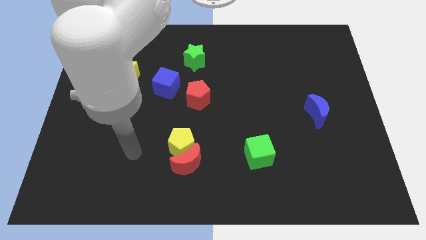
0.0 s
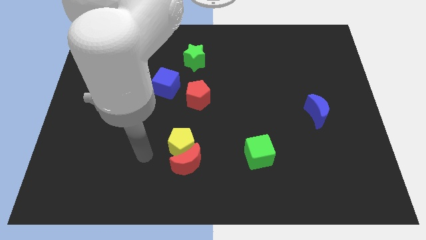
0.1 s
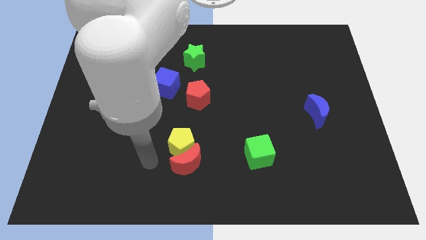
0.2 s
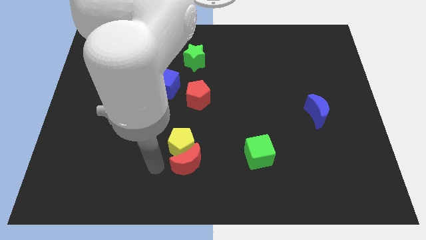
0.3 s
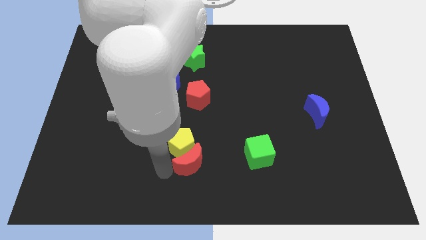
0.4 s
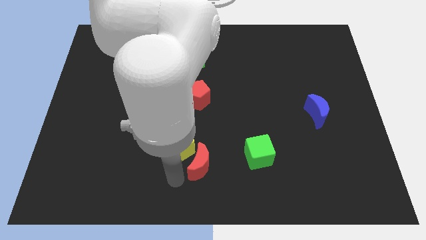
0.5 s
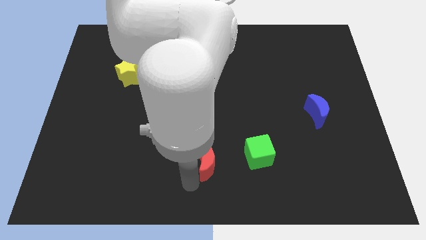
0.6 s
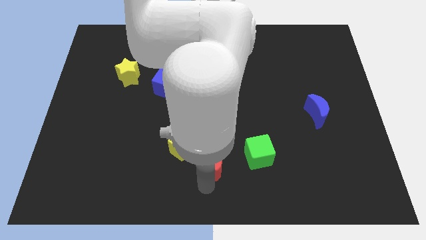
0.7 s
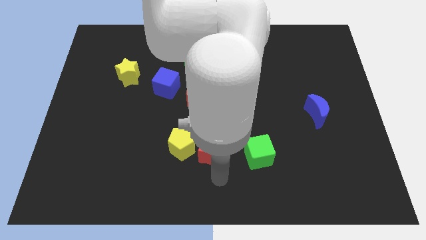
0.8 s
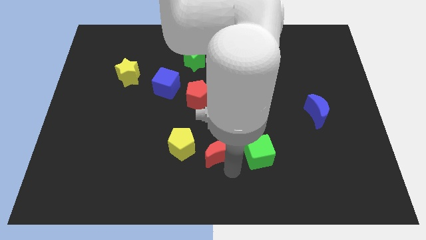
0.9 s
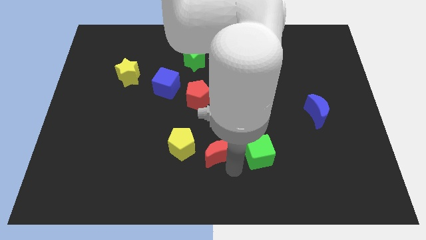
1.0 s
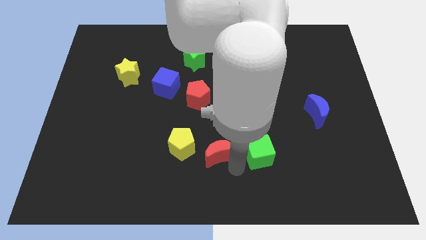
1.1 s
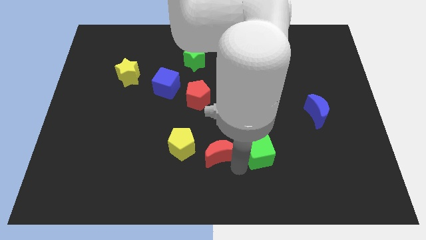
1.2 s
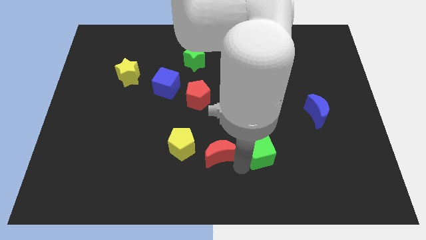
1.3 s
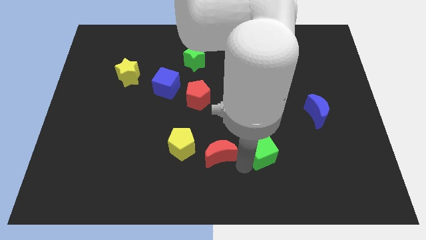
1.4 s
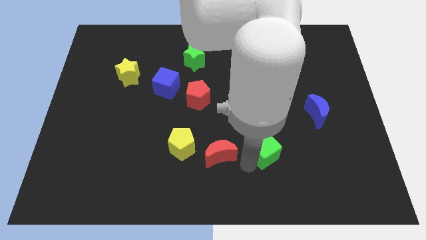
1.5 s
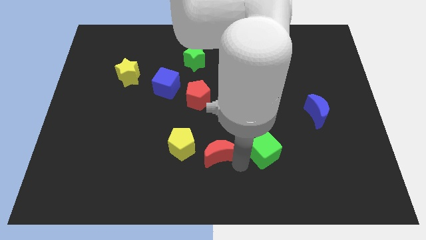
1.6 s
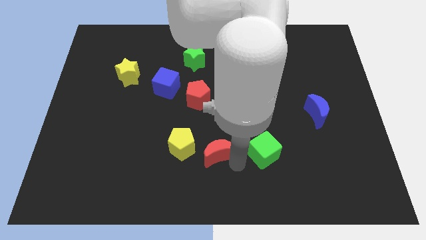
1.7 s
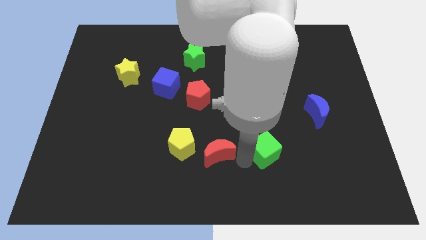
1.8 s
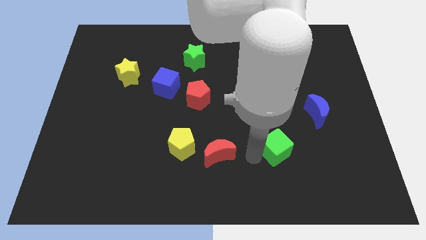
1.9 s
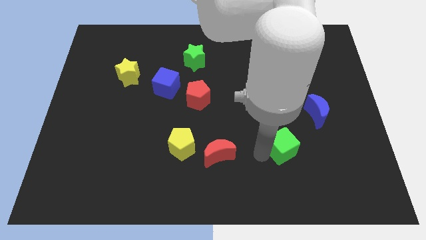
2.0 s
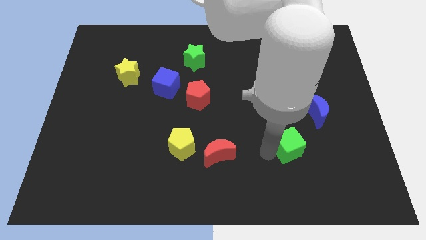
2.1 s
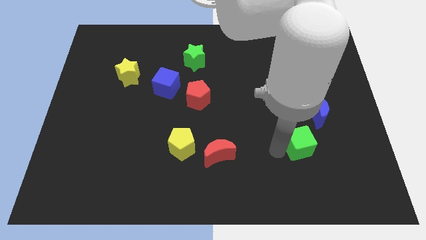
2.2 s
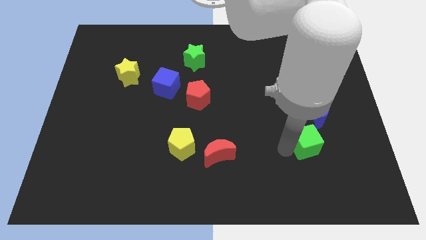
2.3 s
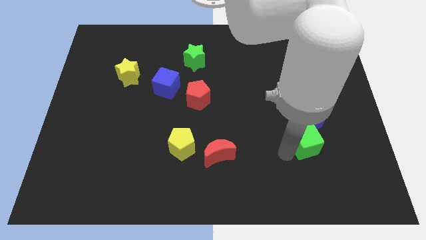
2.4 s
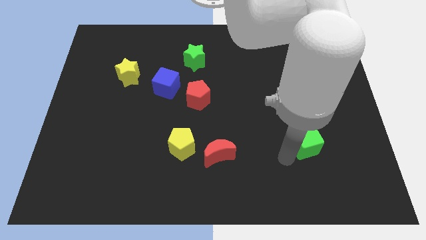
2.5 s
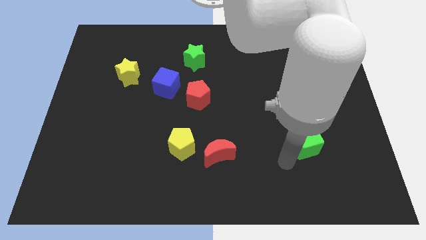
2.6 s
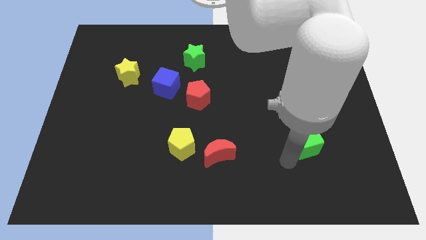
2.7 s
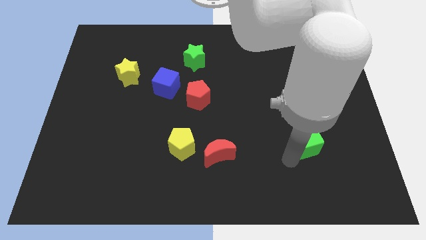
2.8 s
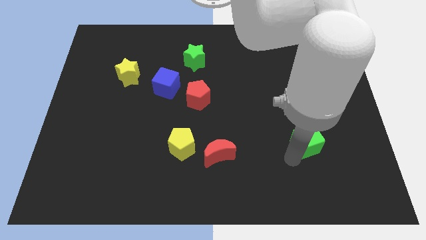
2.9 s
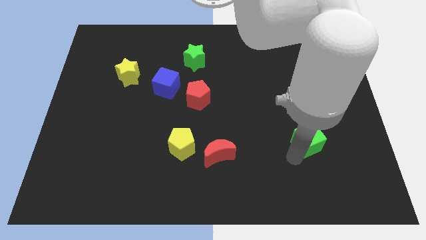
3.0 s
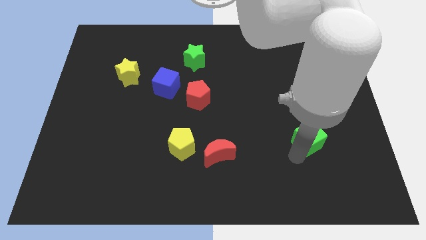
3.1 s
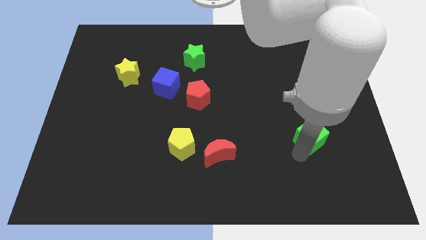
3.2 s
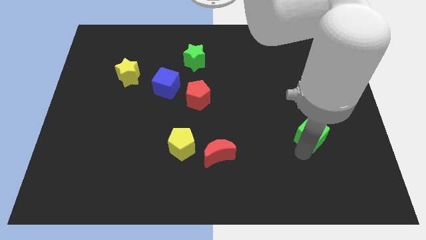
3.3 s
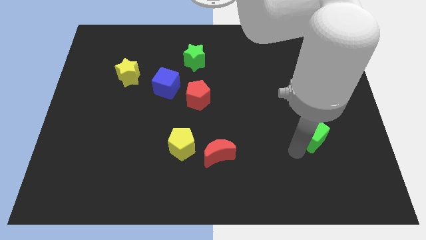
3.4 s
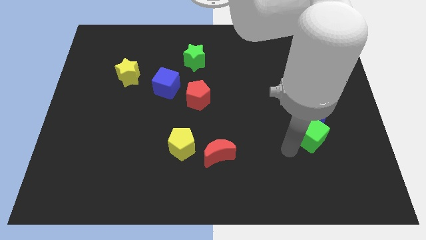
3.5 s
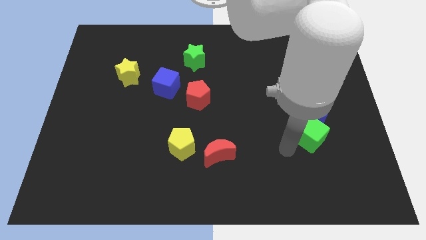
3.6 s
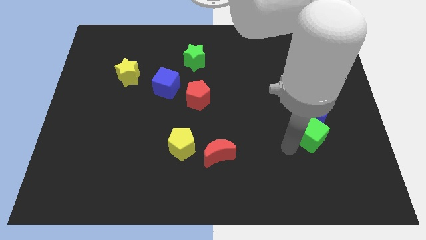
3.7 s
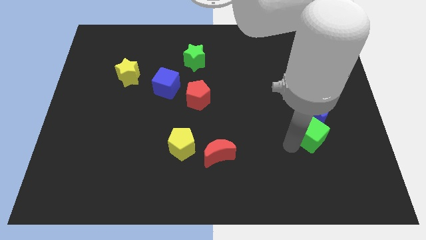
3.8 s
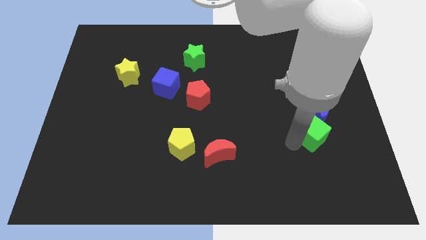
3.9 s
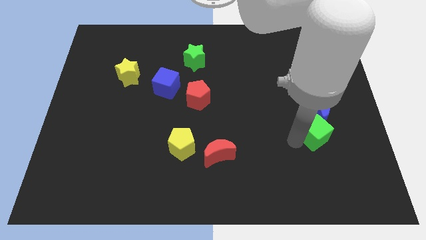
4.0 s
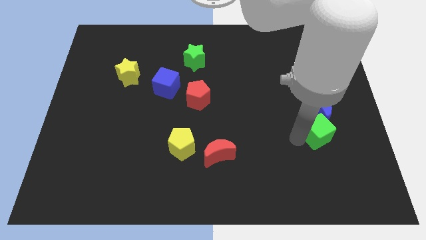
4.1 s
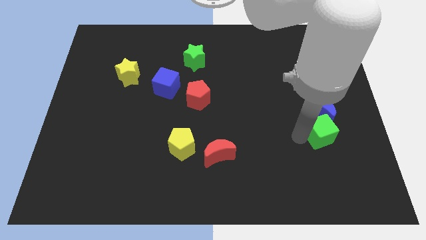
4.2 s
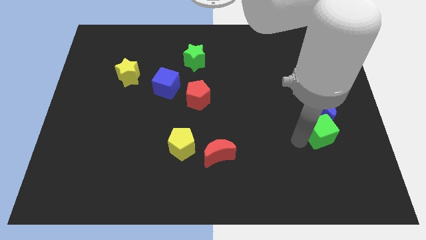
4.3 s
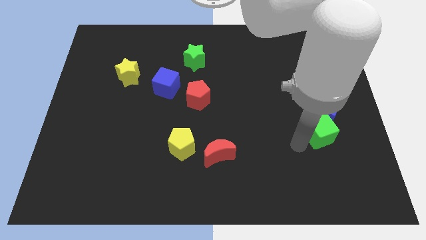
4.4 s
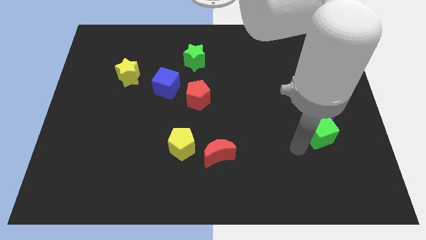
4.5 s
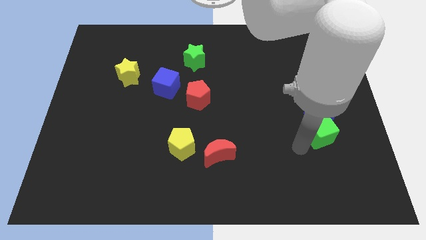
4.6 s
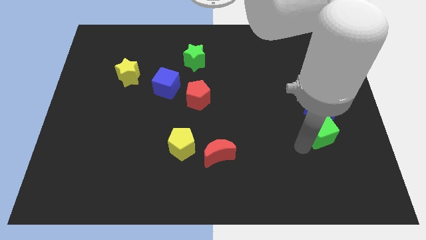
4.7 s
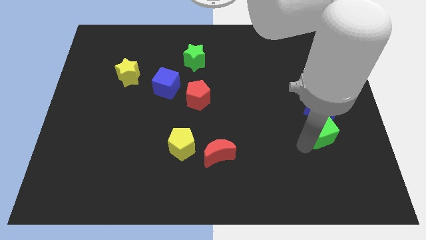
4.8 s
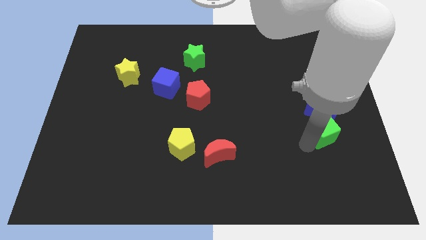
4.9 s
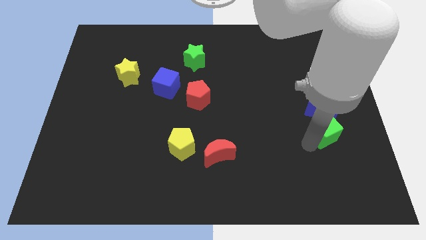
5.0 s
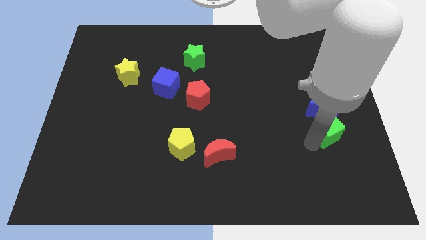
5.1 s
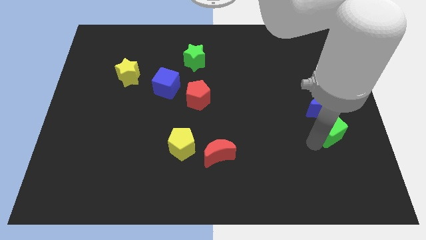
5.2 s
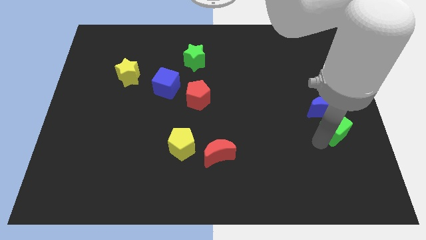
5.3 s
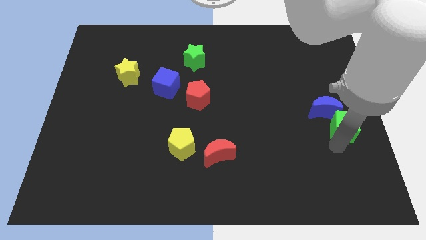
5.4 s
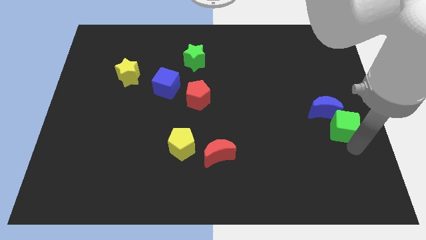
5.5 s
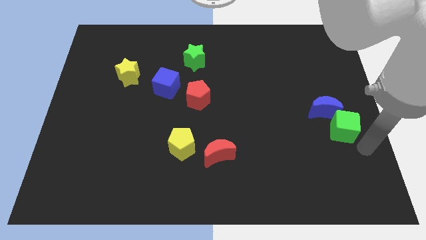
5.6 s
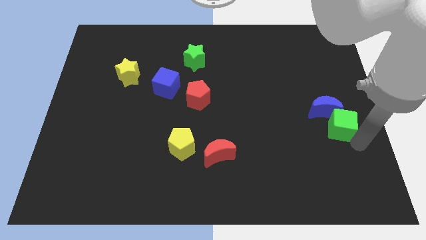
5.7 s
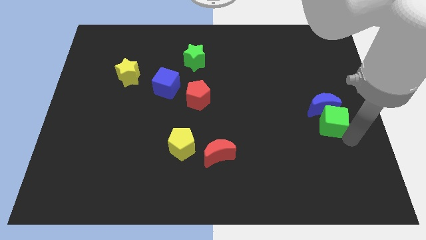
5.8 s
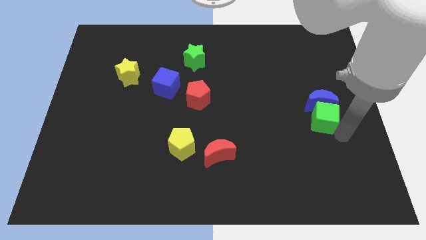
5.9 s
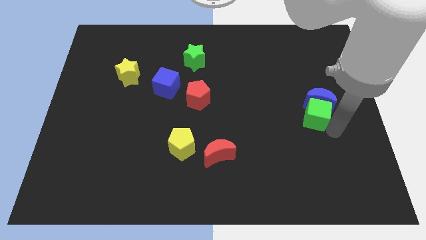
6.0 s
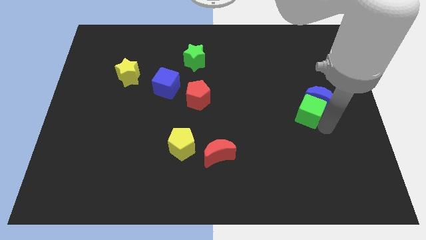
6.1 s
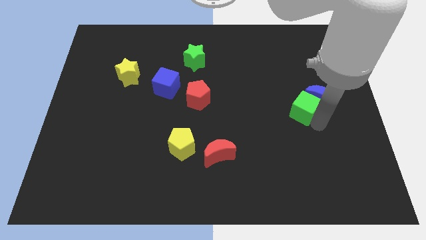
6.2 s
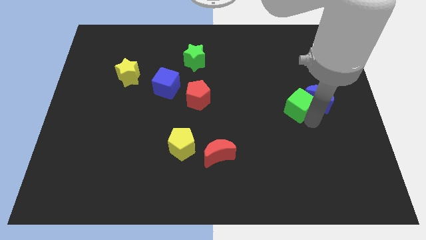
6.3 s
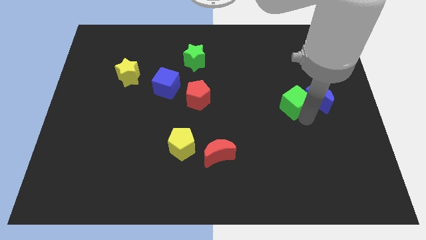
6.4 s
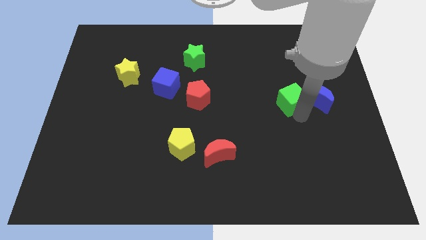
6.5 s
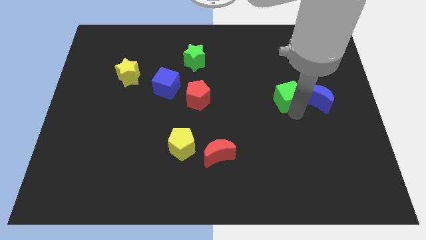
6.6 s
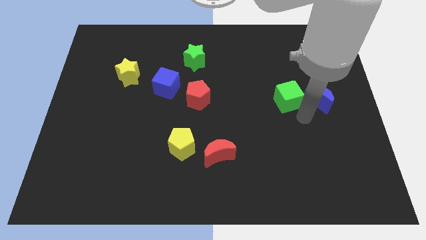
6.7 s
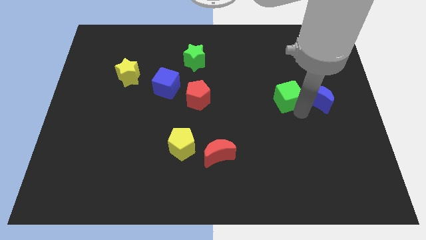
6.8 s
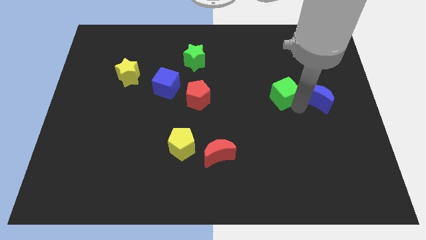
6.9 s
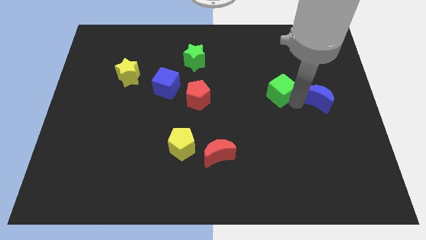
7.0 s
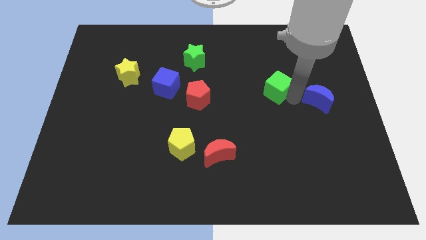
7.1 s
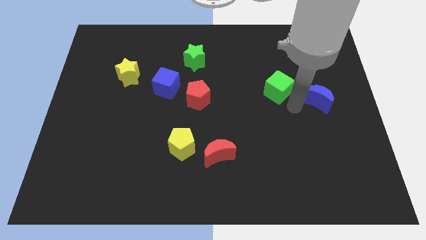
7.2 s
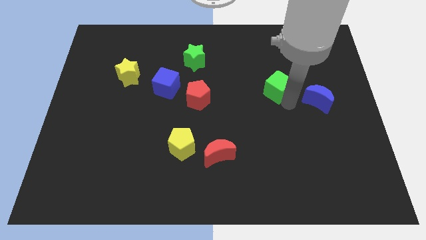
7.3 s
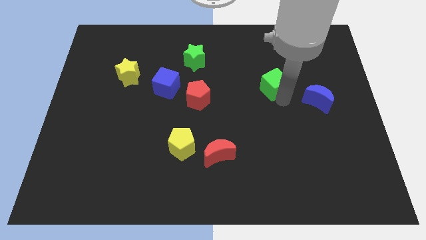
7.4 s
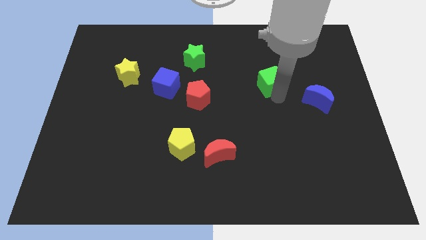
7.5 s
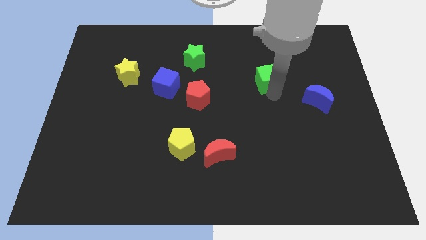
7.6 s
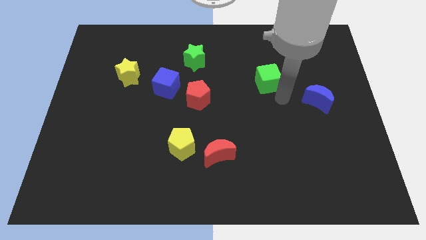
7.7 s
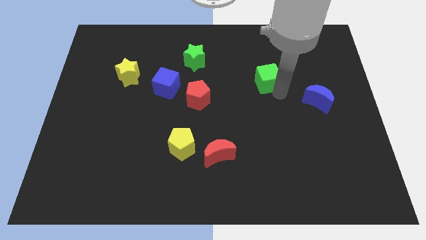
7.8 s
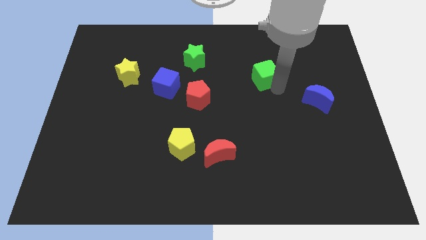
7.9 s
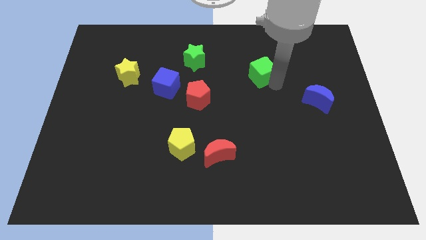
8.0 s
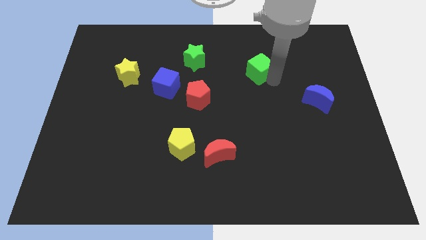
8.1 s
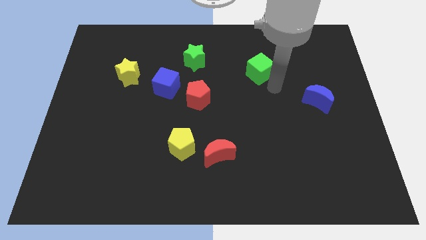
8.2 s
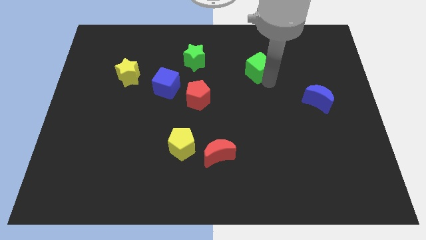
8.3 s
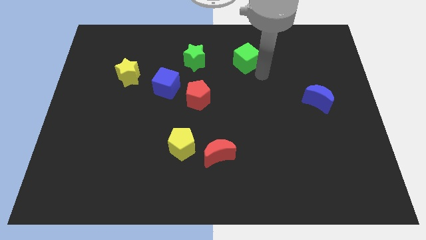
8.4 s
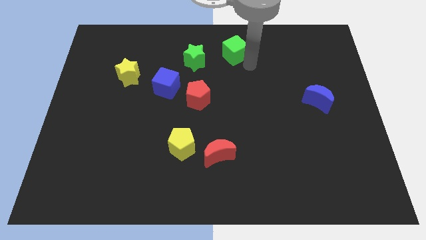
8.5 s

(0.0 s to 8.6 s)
move the green cube to the top side
